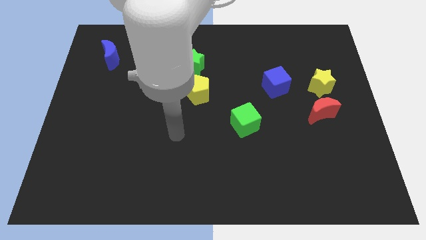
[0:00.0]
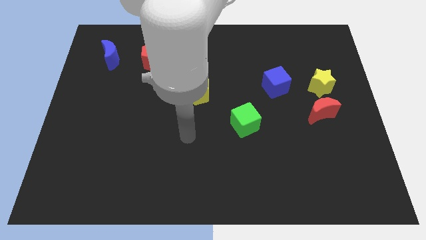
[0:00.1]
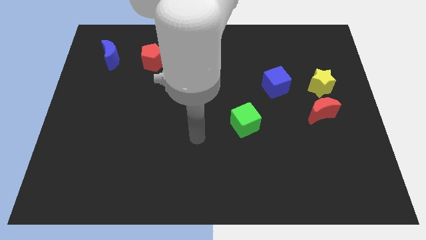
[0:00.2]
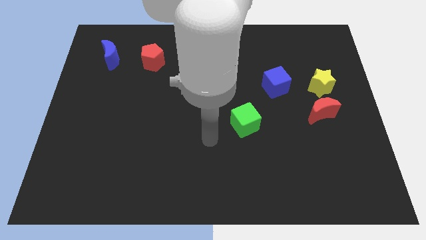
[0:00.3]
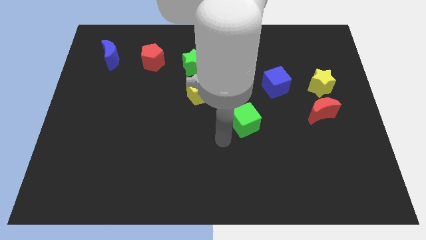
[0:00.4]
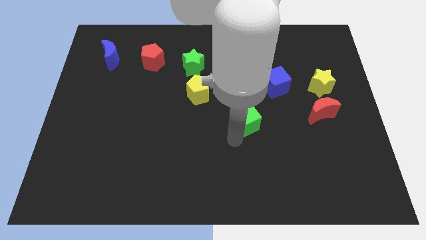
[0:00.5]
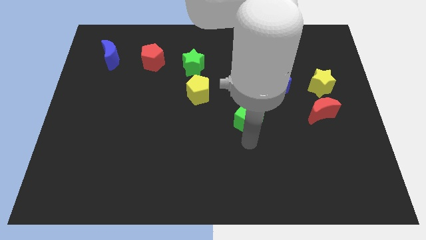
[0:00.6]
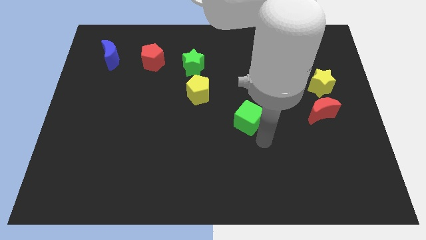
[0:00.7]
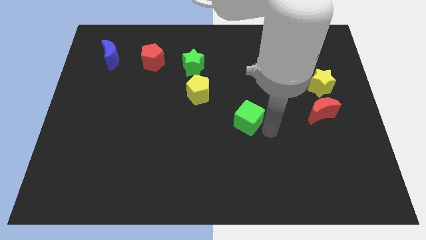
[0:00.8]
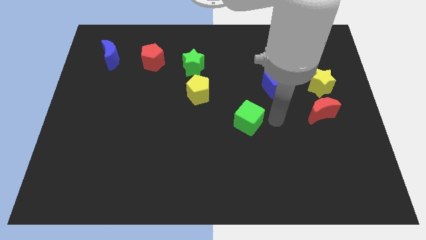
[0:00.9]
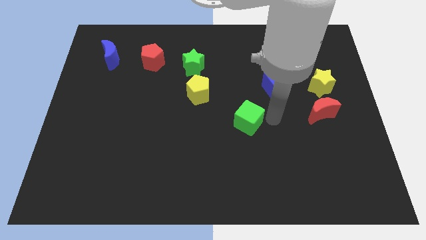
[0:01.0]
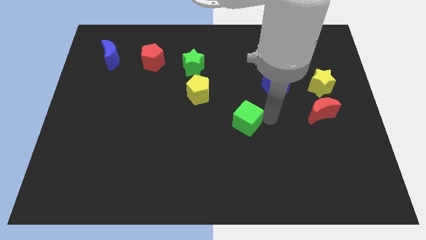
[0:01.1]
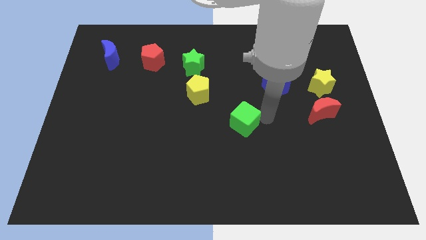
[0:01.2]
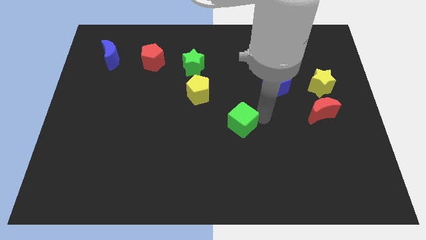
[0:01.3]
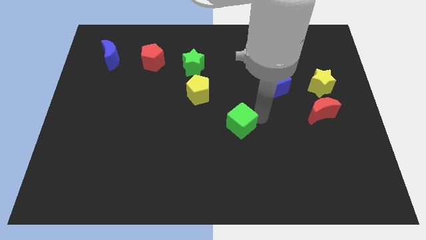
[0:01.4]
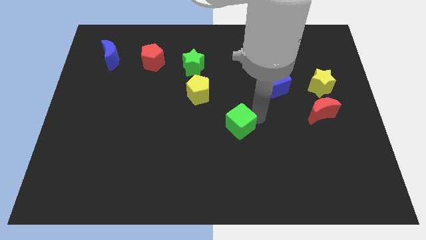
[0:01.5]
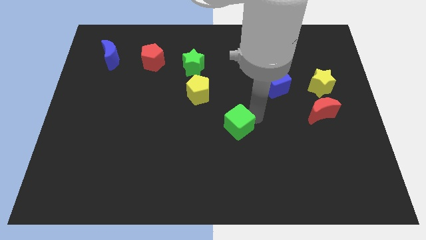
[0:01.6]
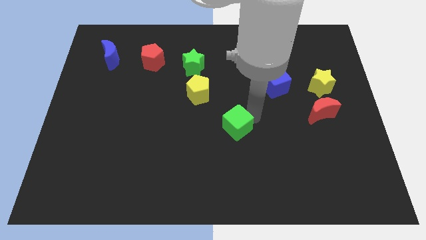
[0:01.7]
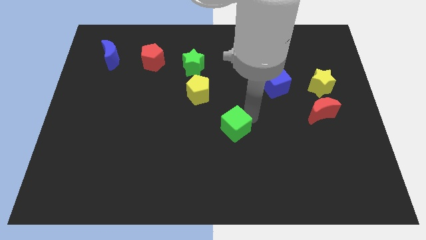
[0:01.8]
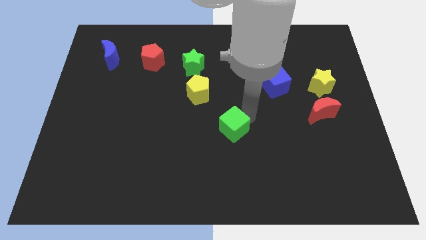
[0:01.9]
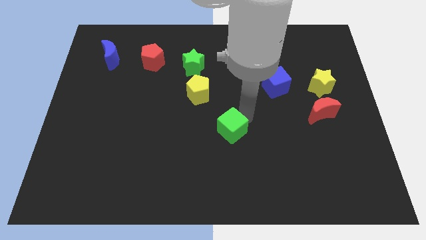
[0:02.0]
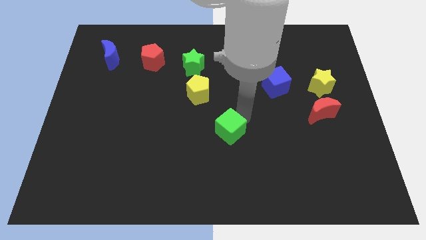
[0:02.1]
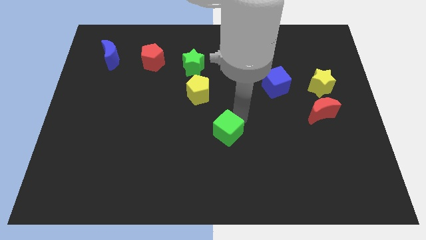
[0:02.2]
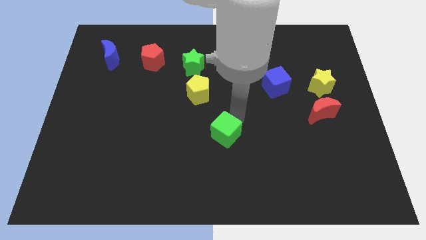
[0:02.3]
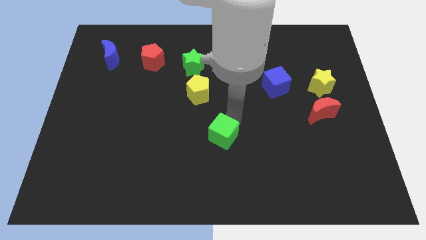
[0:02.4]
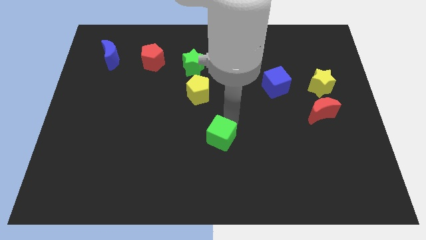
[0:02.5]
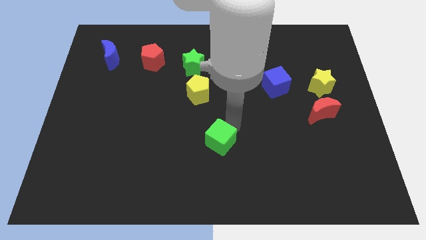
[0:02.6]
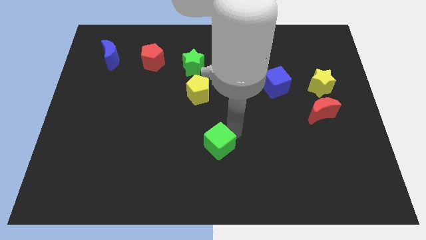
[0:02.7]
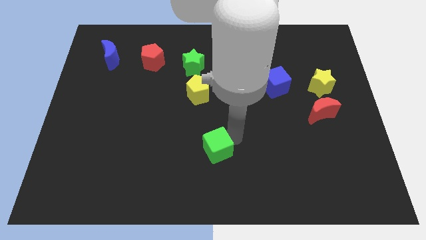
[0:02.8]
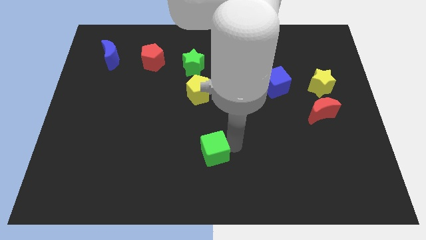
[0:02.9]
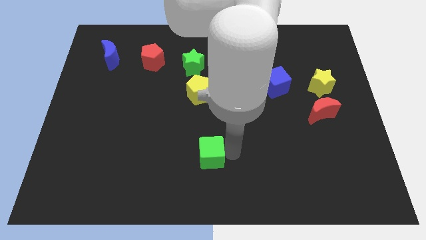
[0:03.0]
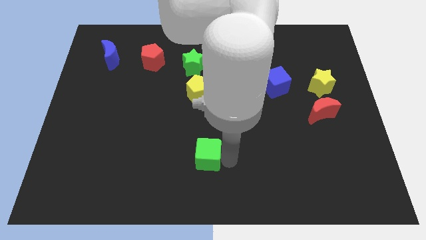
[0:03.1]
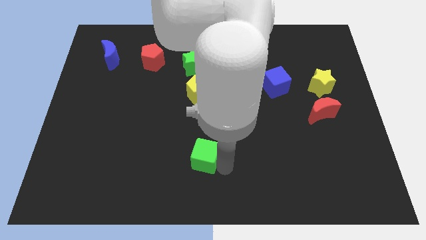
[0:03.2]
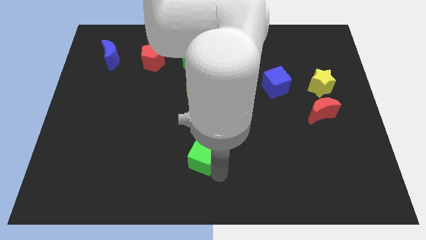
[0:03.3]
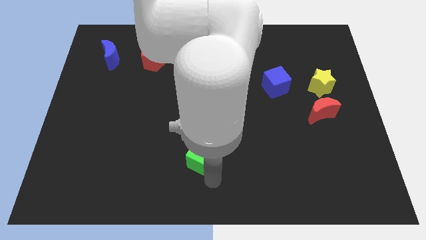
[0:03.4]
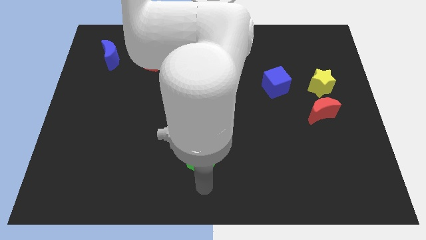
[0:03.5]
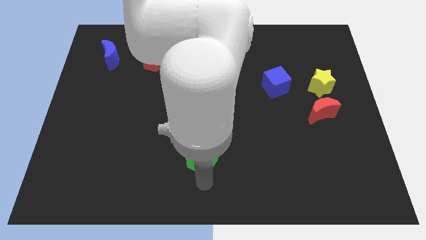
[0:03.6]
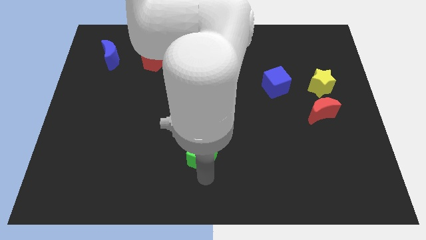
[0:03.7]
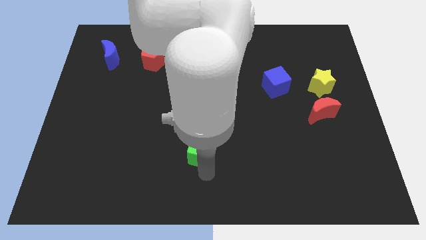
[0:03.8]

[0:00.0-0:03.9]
slightly move the green cube to the left

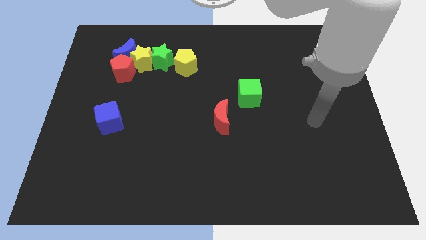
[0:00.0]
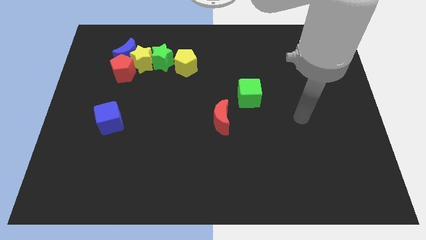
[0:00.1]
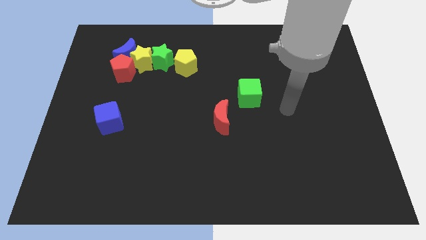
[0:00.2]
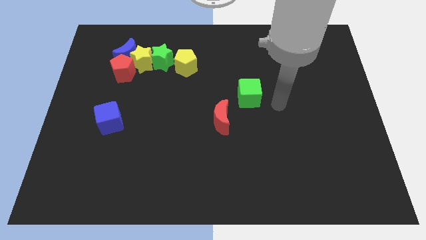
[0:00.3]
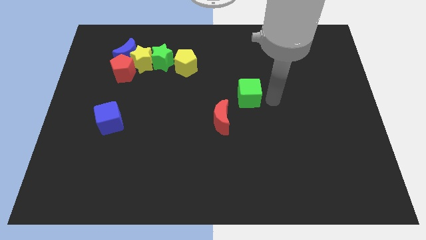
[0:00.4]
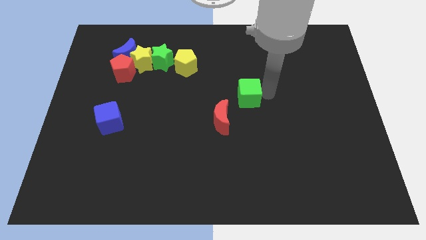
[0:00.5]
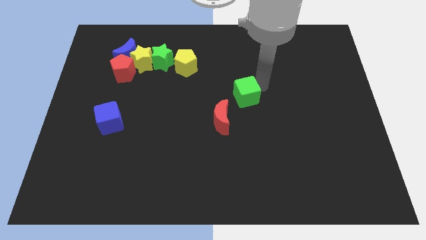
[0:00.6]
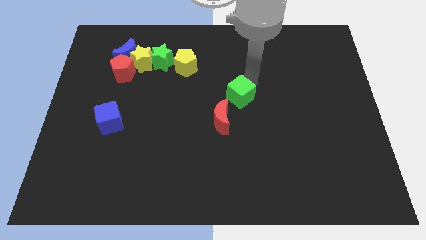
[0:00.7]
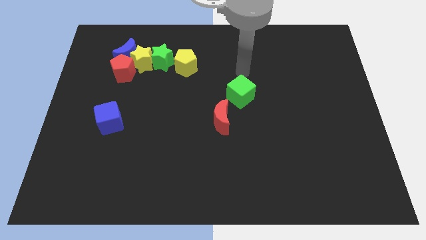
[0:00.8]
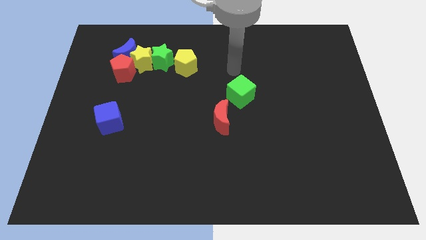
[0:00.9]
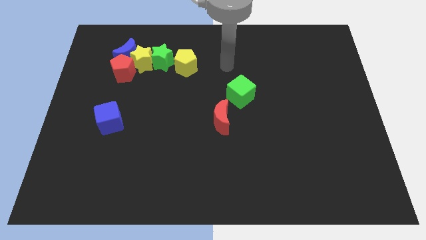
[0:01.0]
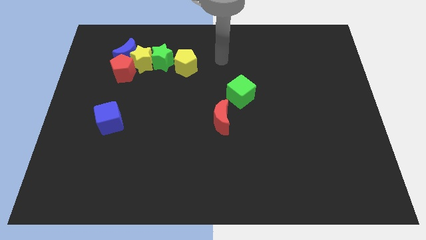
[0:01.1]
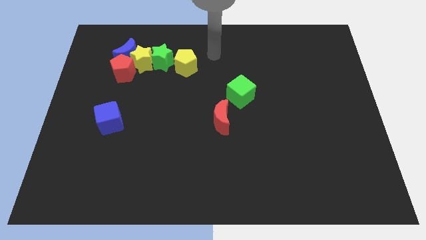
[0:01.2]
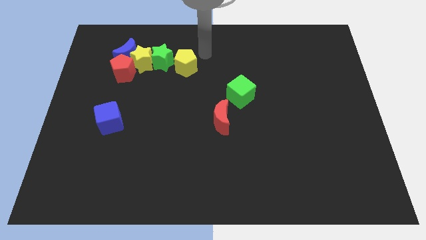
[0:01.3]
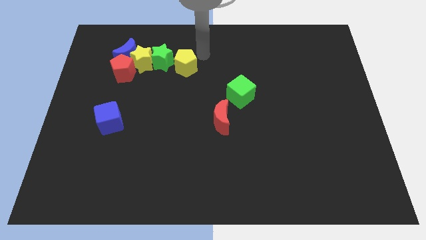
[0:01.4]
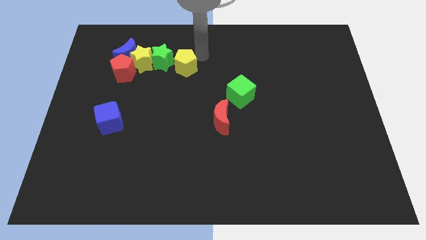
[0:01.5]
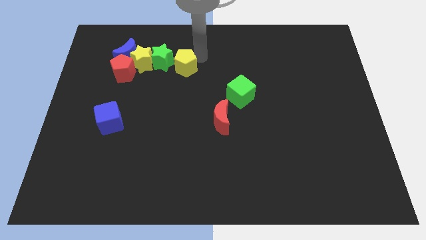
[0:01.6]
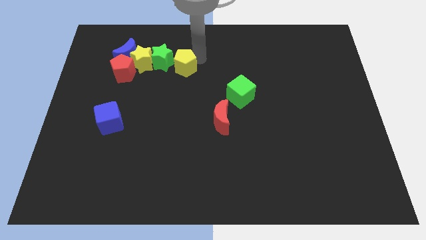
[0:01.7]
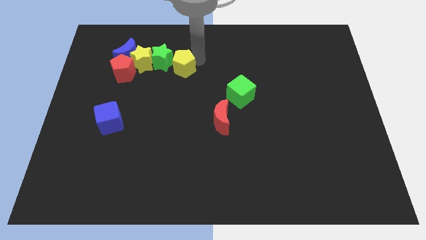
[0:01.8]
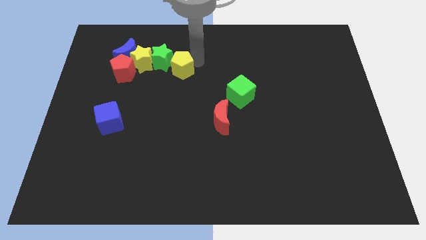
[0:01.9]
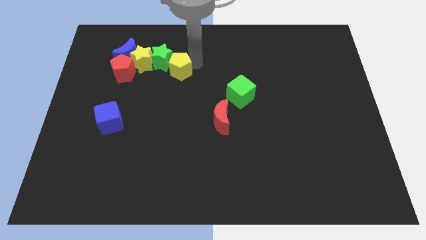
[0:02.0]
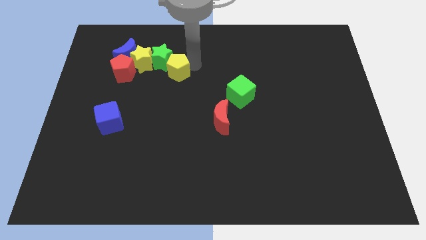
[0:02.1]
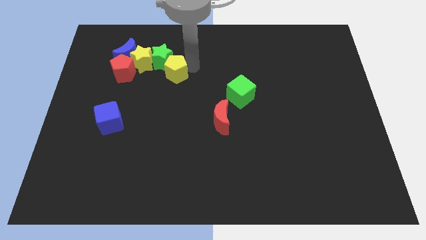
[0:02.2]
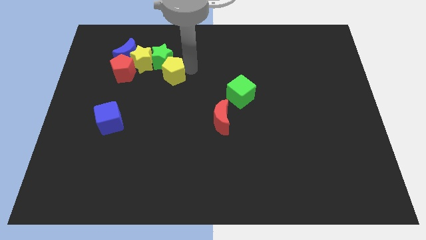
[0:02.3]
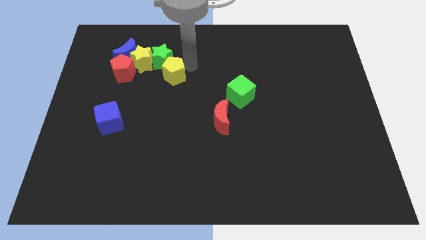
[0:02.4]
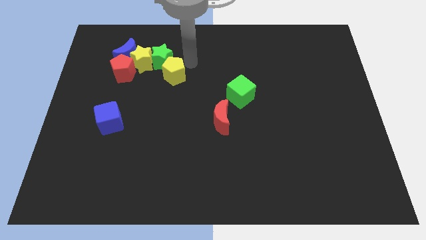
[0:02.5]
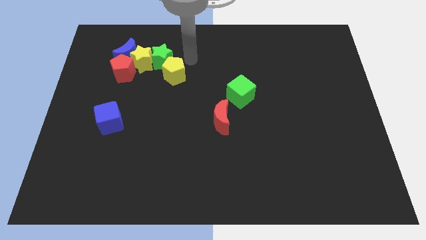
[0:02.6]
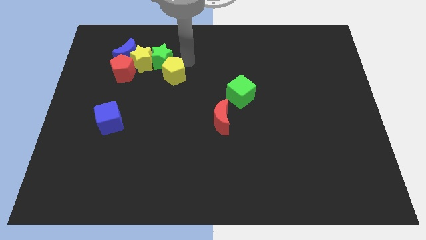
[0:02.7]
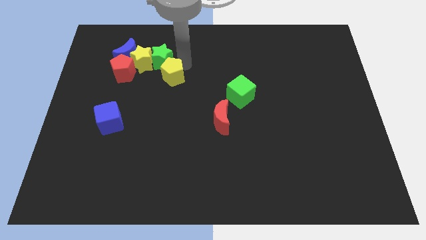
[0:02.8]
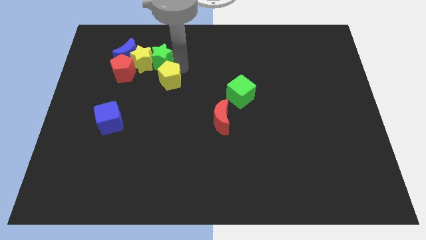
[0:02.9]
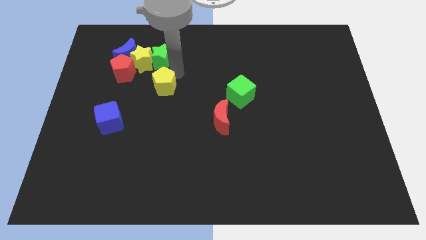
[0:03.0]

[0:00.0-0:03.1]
move the yellow pentagon down and left a little

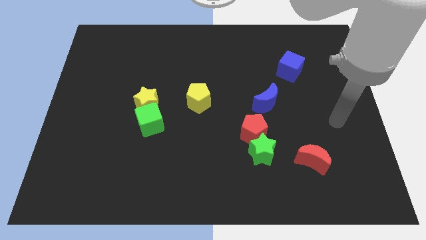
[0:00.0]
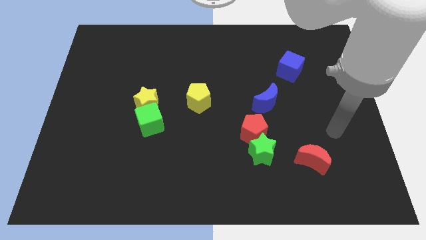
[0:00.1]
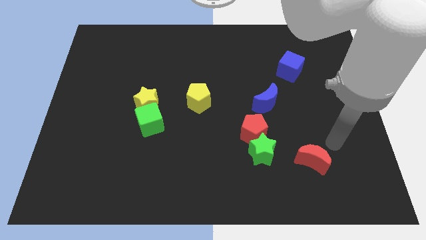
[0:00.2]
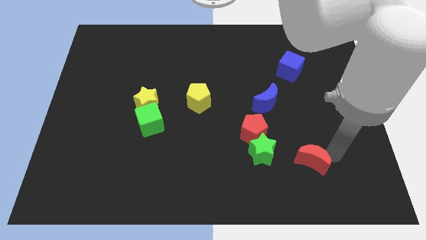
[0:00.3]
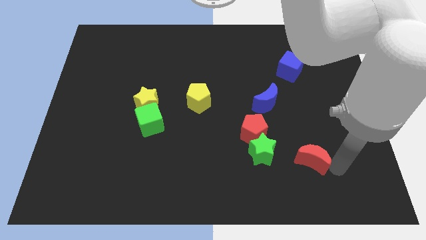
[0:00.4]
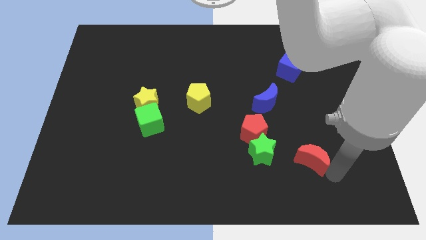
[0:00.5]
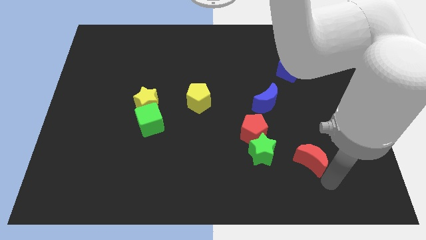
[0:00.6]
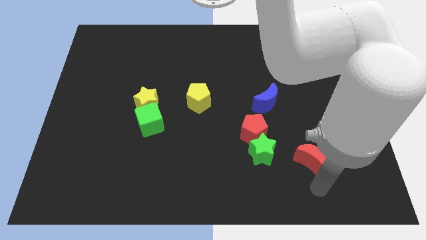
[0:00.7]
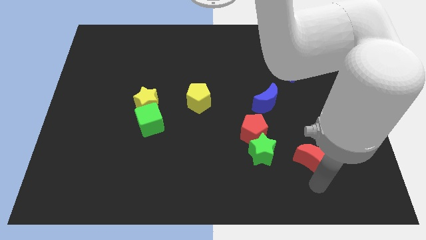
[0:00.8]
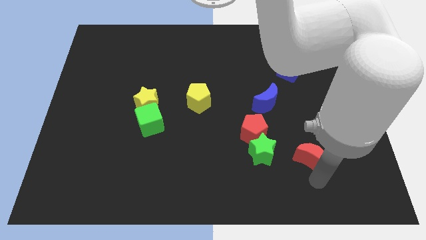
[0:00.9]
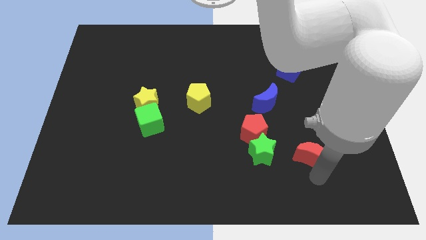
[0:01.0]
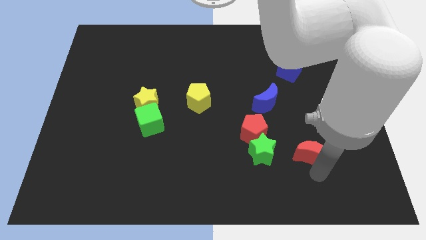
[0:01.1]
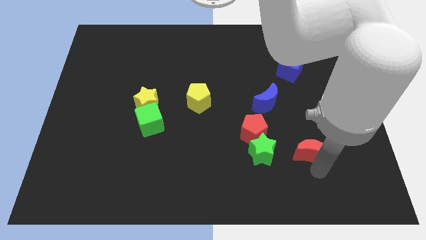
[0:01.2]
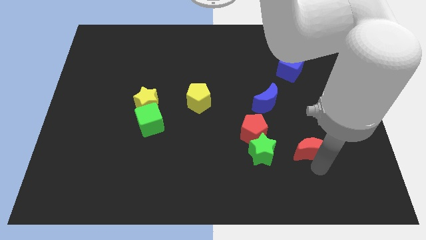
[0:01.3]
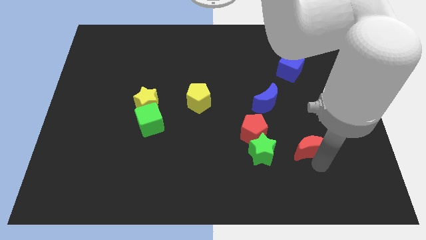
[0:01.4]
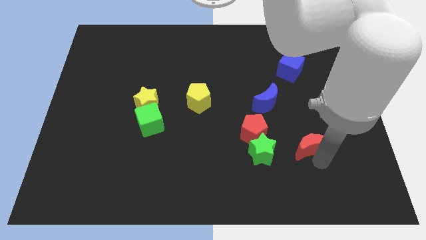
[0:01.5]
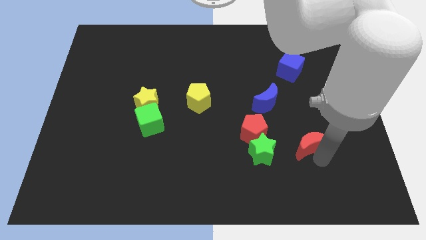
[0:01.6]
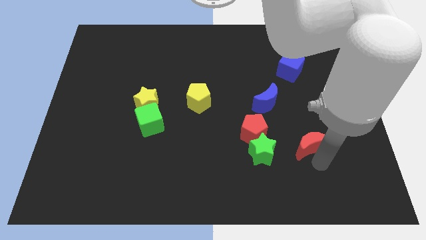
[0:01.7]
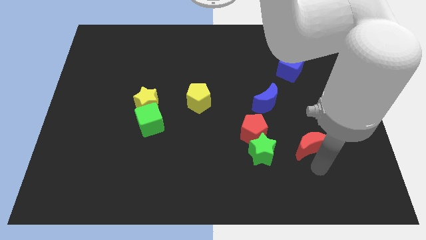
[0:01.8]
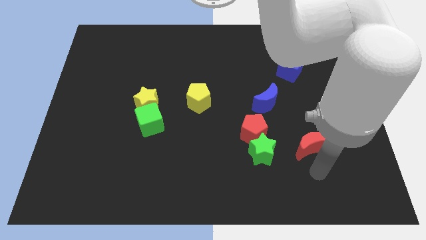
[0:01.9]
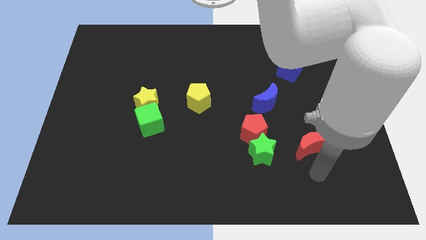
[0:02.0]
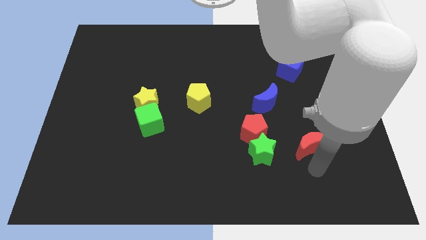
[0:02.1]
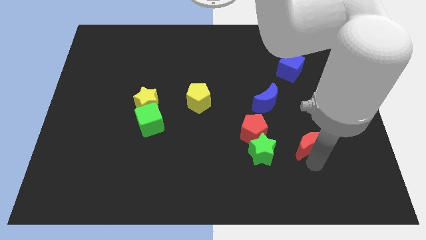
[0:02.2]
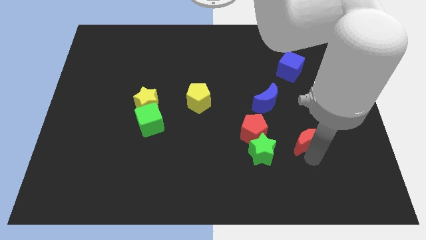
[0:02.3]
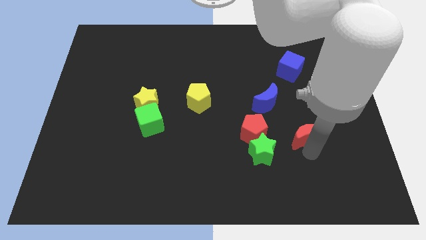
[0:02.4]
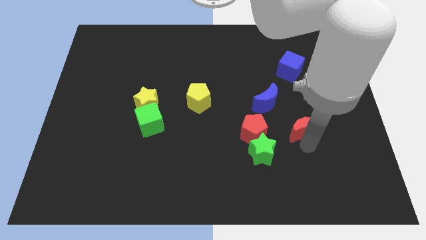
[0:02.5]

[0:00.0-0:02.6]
slightly push the red moon upwards
